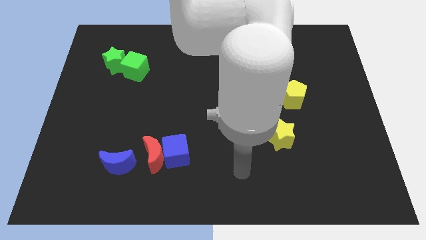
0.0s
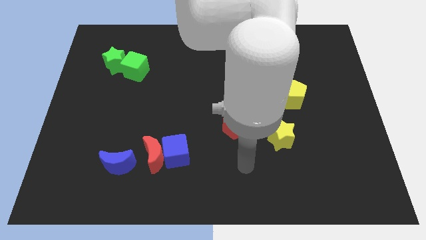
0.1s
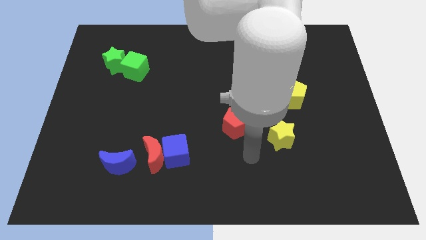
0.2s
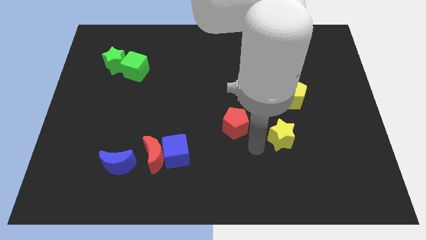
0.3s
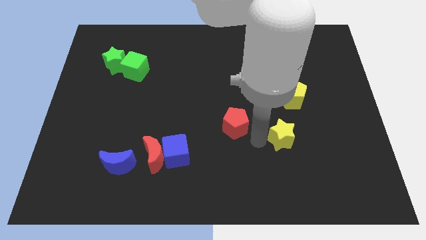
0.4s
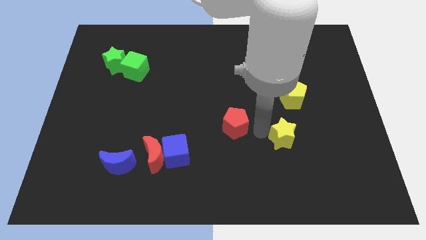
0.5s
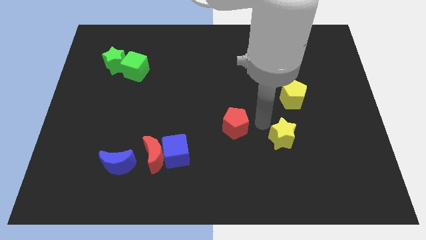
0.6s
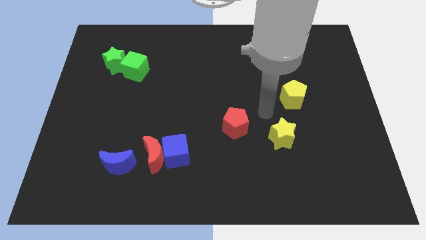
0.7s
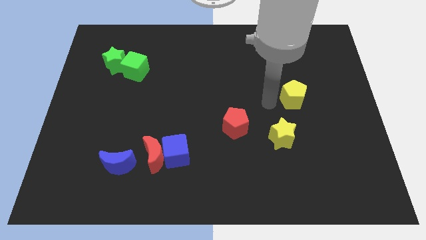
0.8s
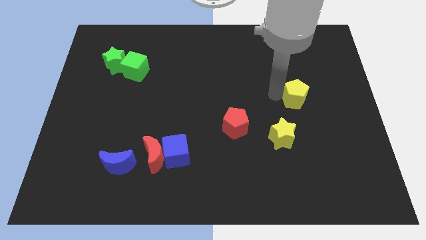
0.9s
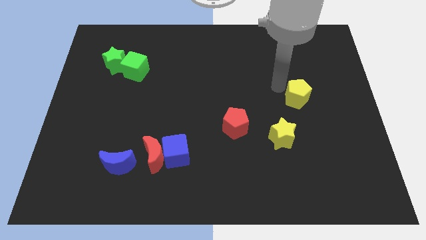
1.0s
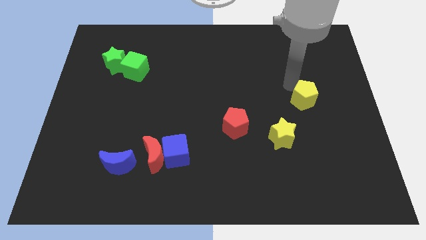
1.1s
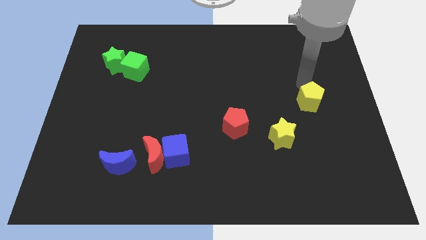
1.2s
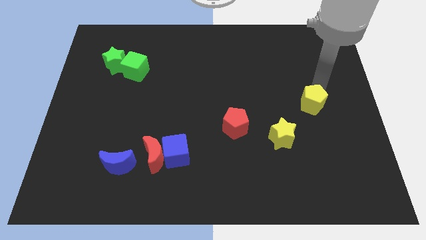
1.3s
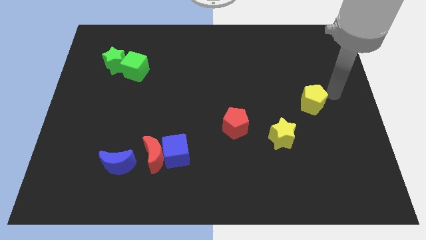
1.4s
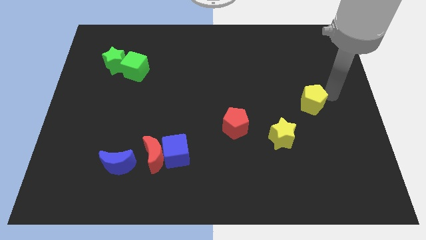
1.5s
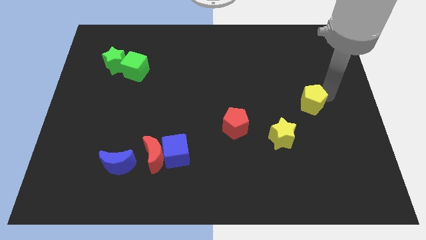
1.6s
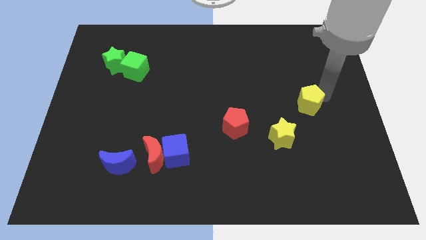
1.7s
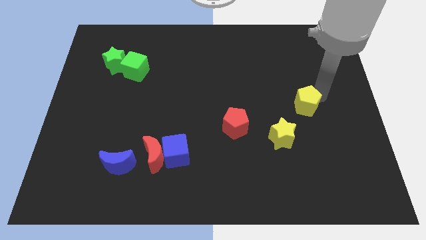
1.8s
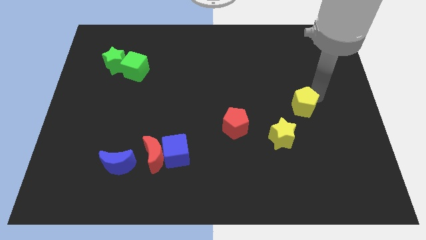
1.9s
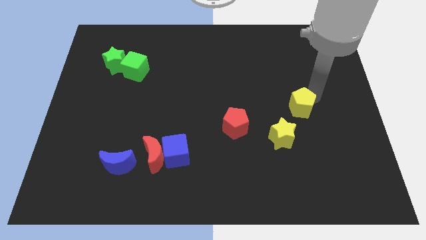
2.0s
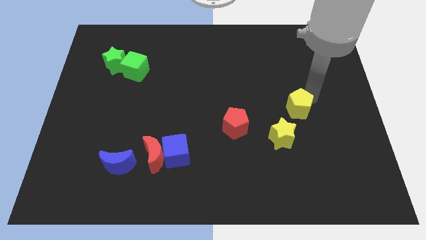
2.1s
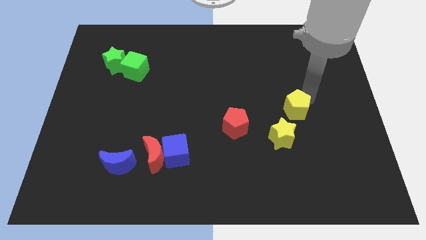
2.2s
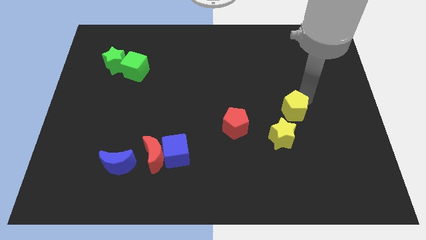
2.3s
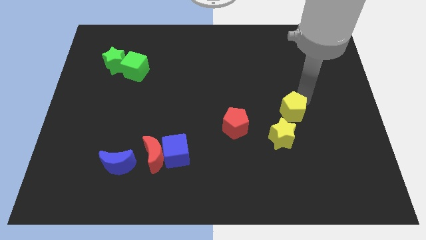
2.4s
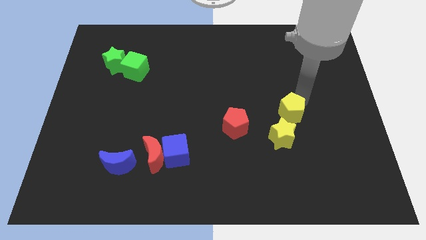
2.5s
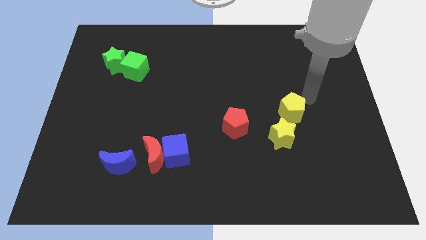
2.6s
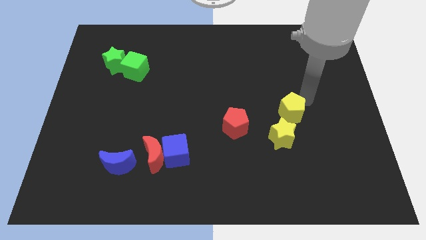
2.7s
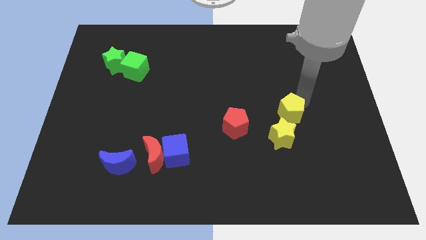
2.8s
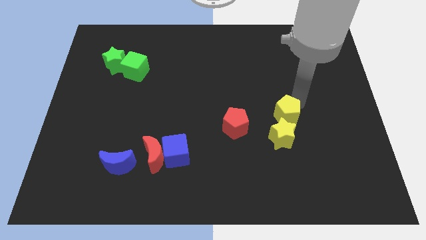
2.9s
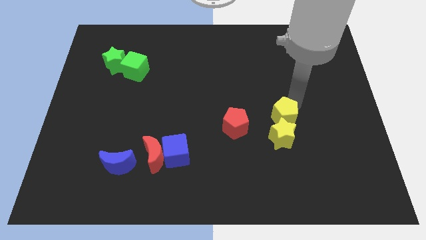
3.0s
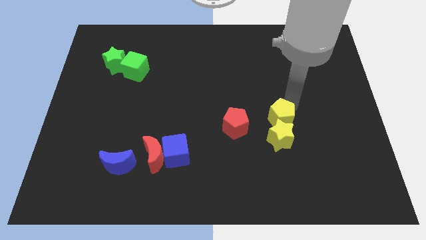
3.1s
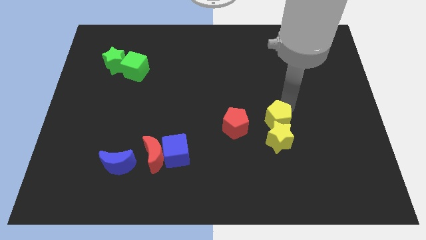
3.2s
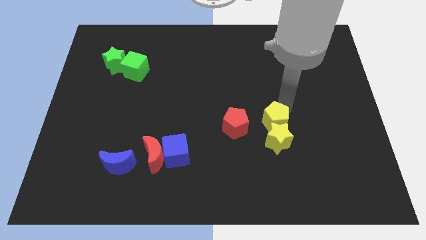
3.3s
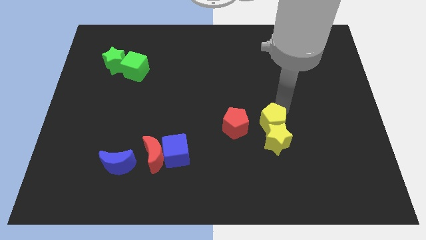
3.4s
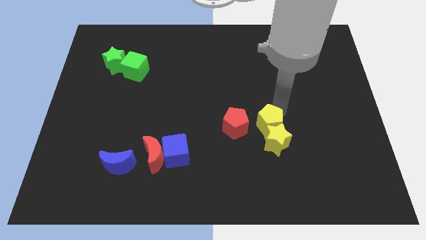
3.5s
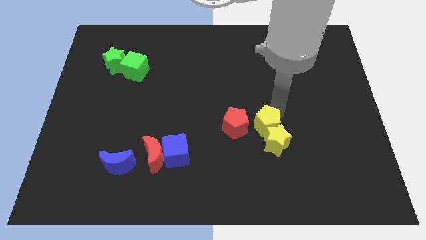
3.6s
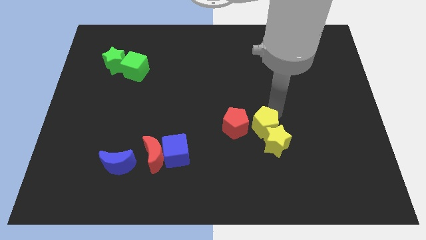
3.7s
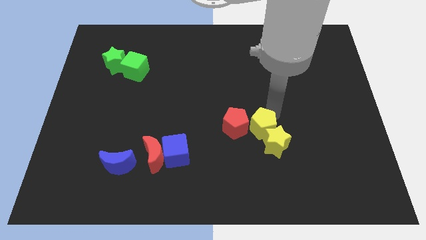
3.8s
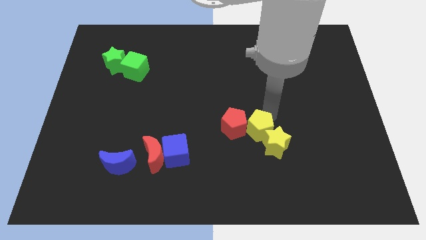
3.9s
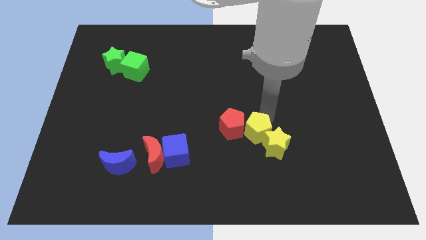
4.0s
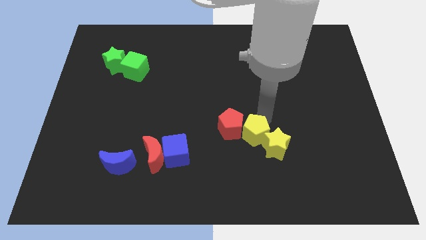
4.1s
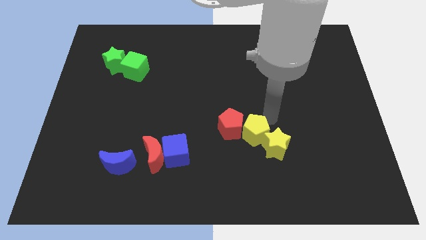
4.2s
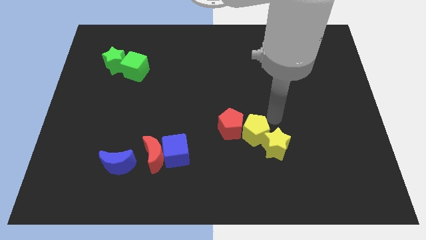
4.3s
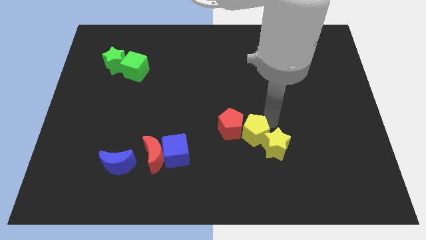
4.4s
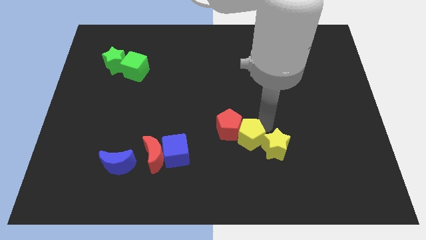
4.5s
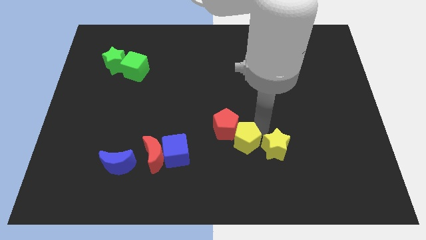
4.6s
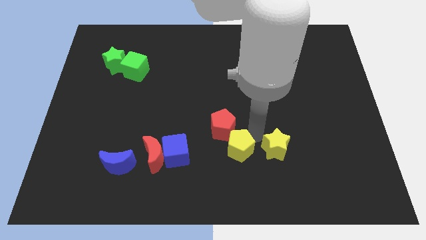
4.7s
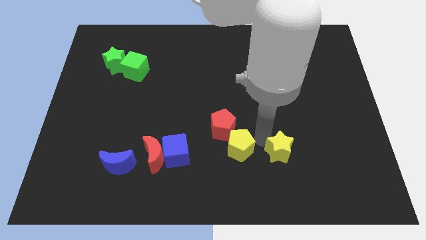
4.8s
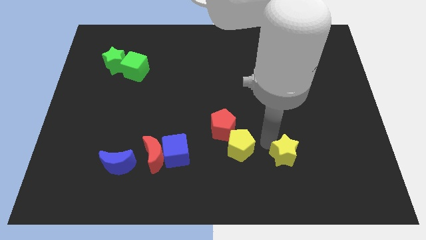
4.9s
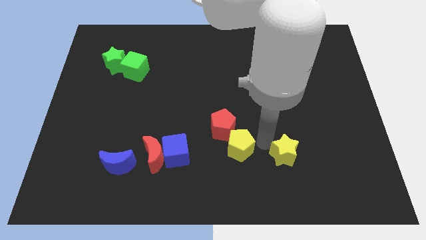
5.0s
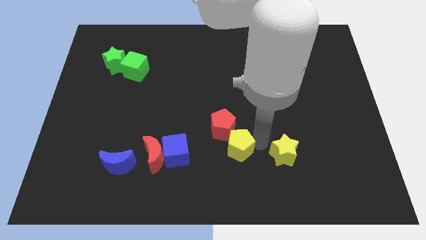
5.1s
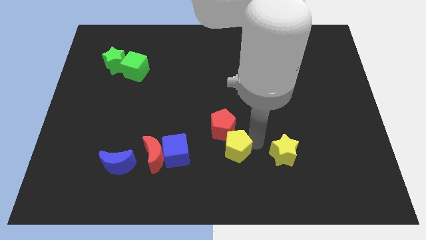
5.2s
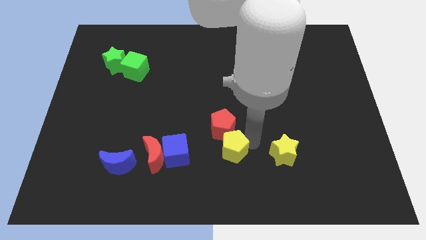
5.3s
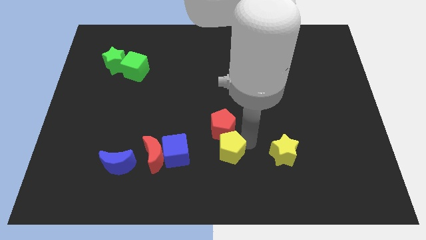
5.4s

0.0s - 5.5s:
put the yellow pentagon right of the red moon

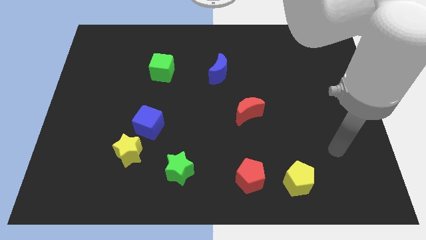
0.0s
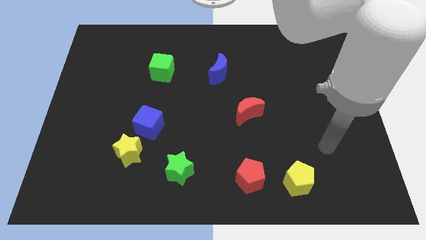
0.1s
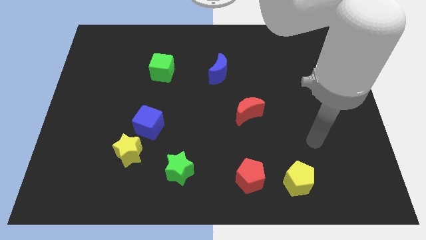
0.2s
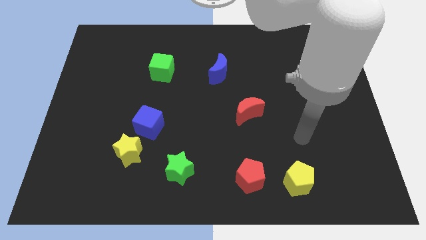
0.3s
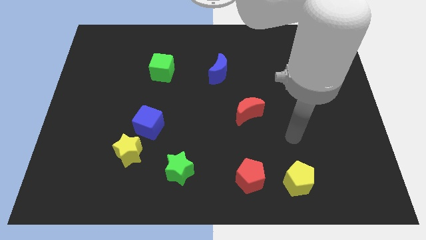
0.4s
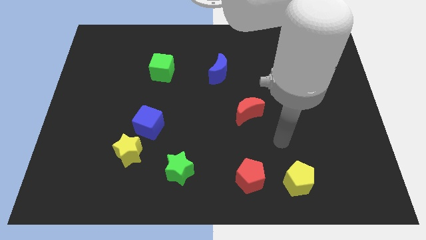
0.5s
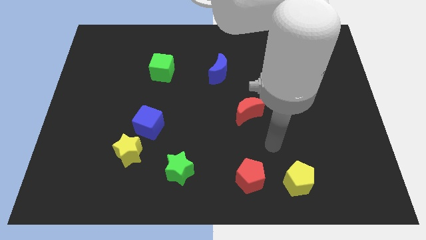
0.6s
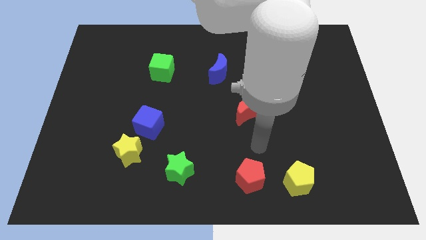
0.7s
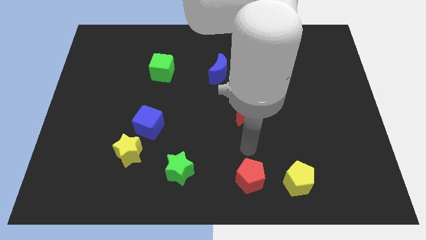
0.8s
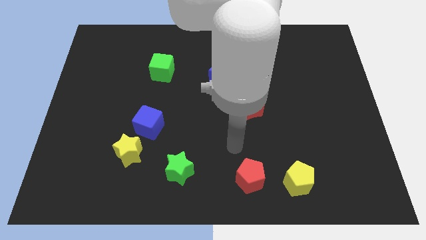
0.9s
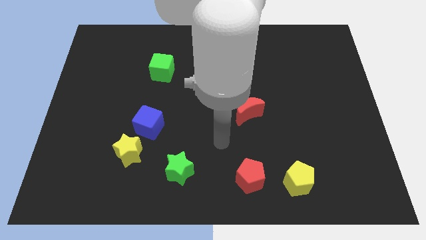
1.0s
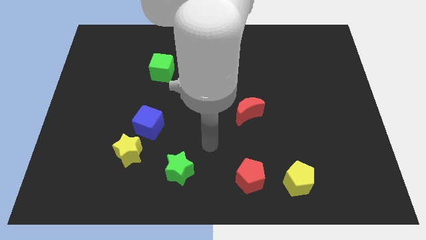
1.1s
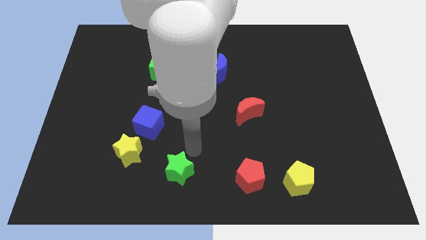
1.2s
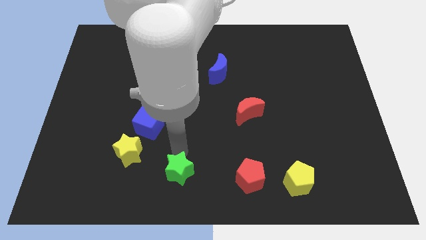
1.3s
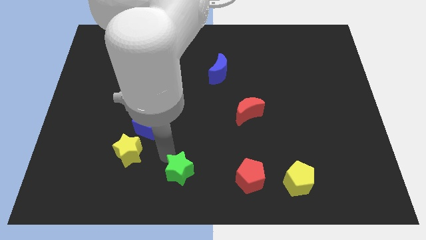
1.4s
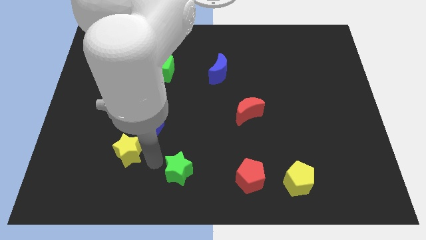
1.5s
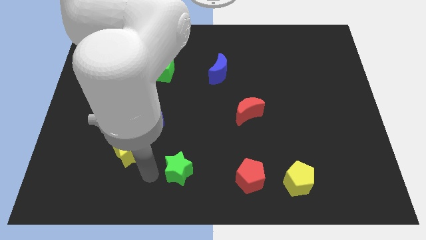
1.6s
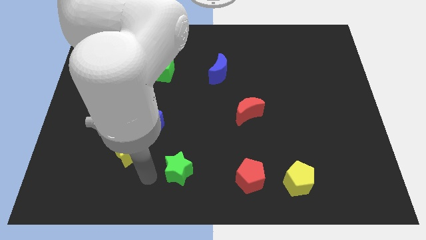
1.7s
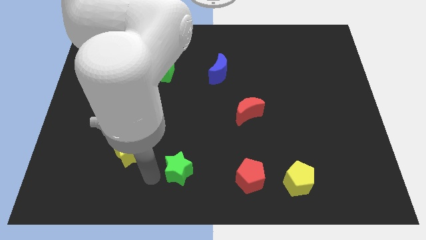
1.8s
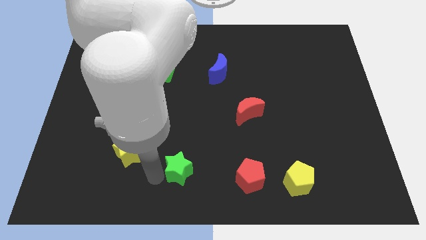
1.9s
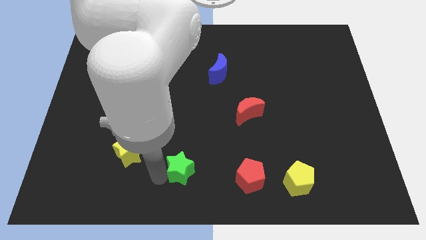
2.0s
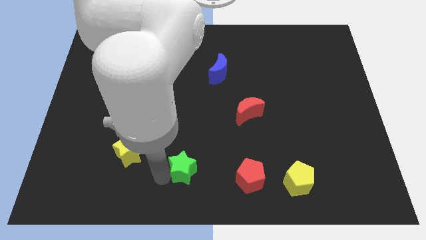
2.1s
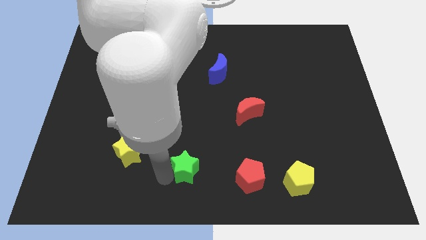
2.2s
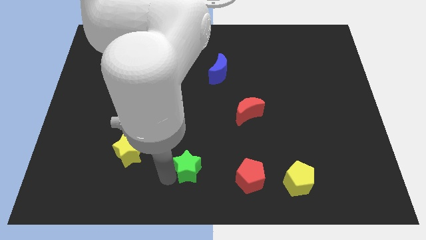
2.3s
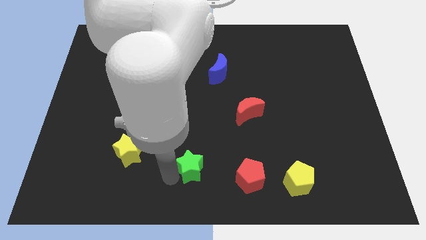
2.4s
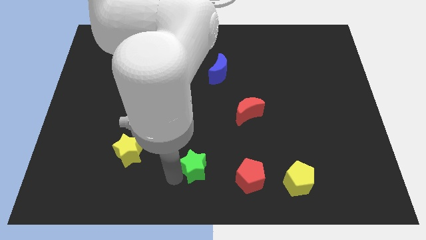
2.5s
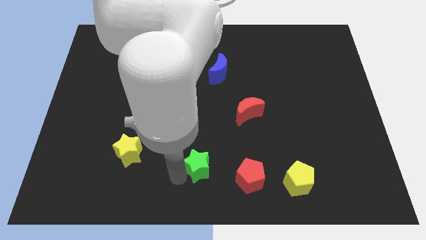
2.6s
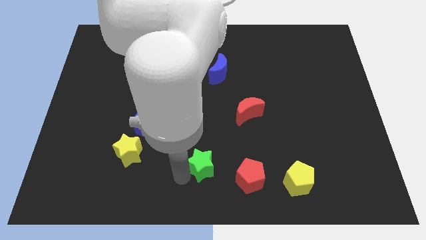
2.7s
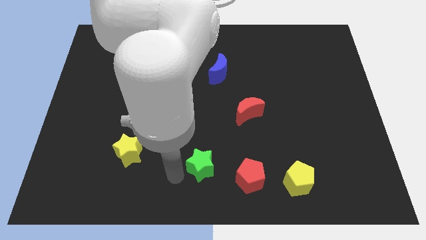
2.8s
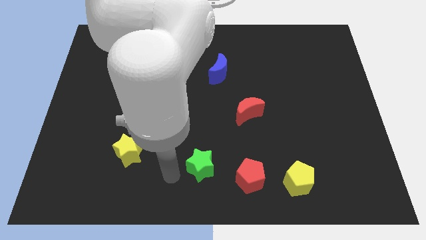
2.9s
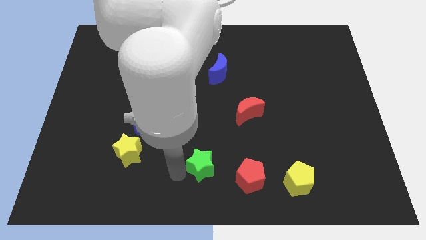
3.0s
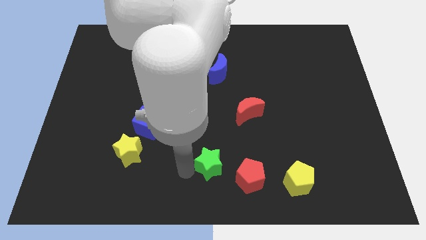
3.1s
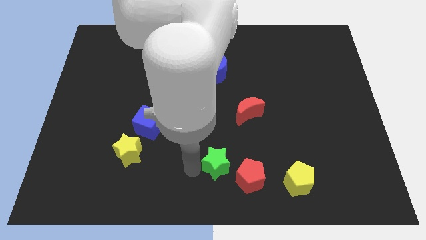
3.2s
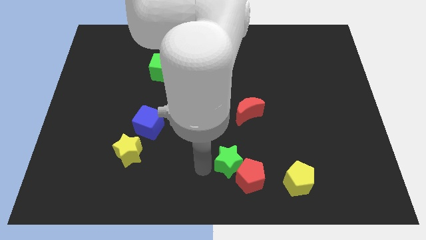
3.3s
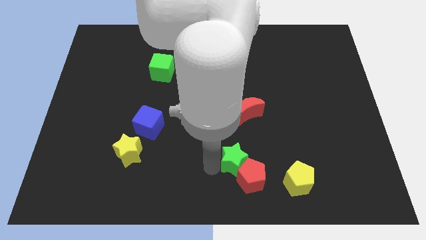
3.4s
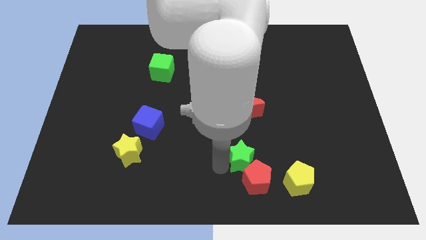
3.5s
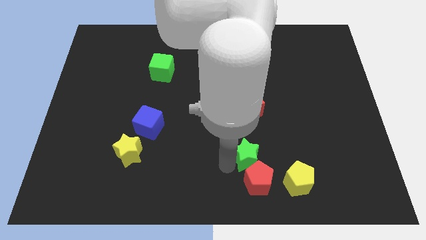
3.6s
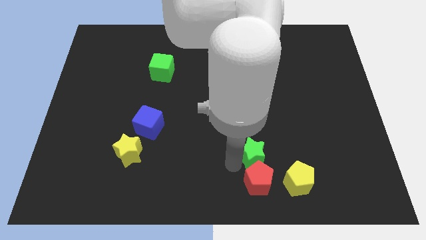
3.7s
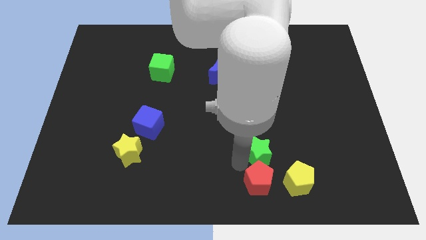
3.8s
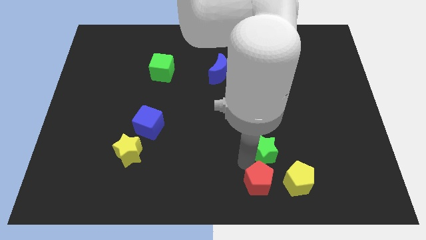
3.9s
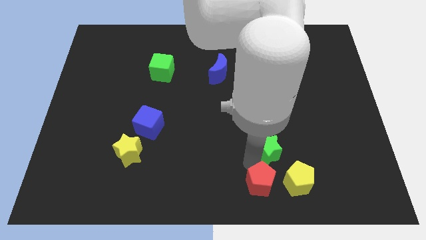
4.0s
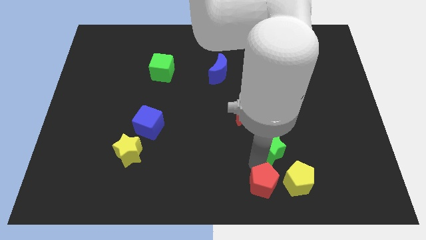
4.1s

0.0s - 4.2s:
move the green star to the bottom right of the red moon
